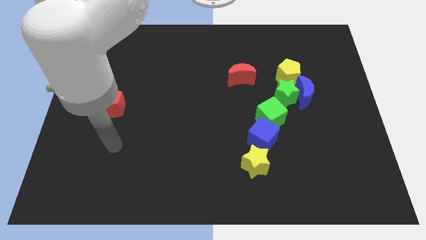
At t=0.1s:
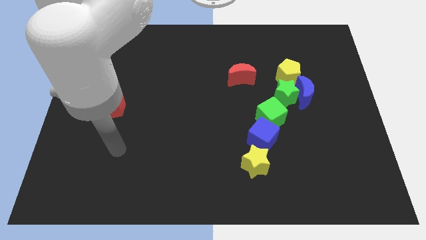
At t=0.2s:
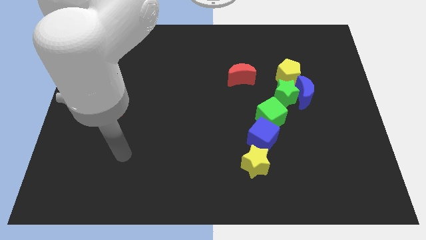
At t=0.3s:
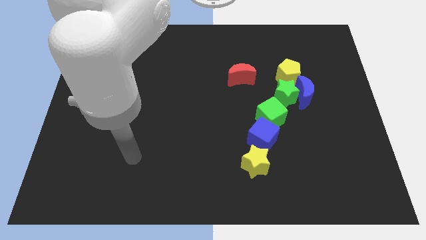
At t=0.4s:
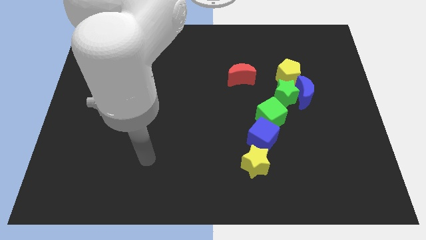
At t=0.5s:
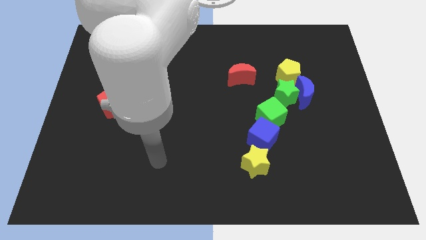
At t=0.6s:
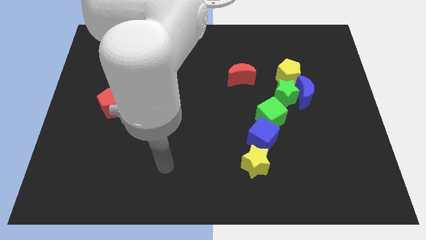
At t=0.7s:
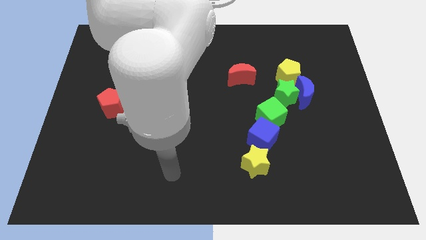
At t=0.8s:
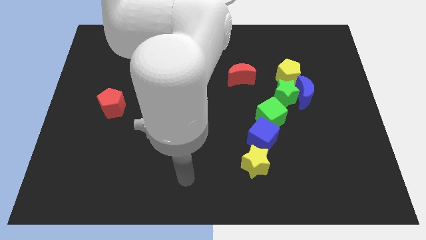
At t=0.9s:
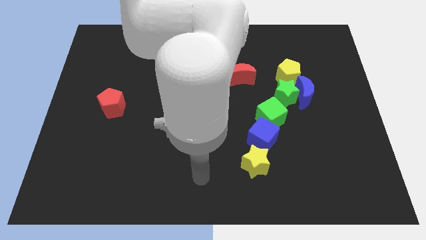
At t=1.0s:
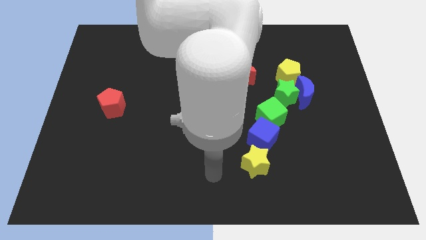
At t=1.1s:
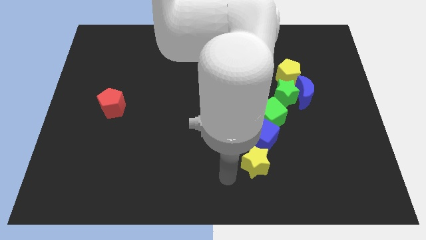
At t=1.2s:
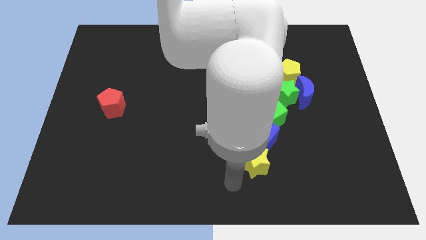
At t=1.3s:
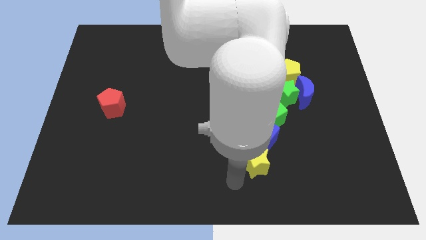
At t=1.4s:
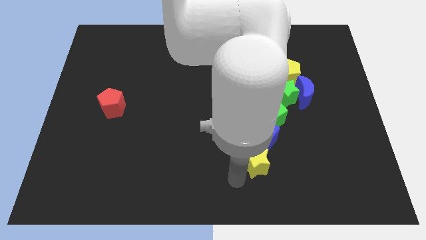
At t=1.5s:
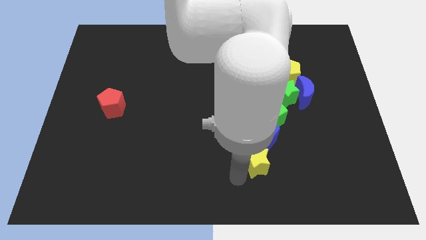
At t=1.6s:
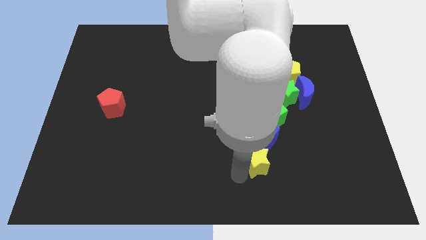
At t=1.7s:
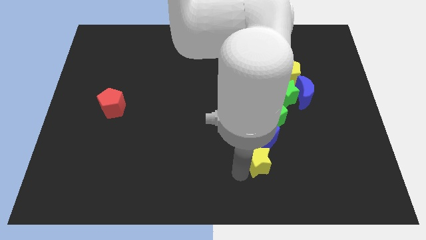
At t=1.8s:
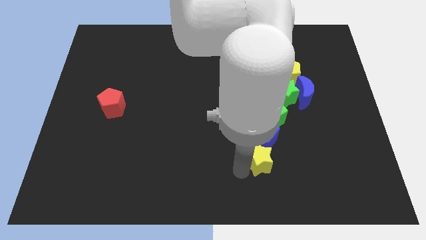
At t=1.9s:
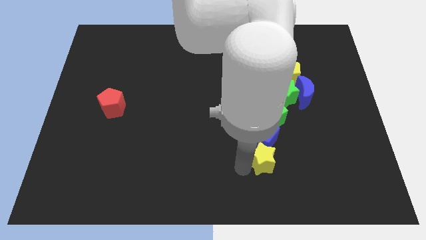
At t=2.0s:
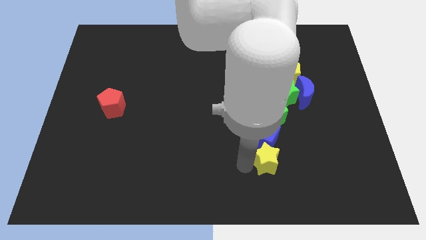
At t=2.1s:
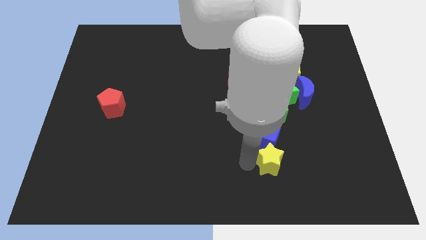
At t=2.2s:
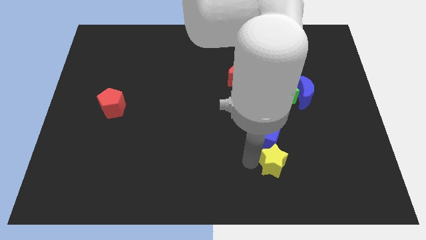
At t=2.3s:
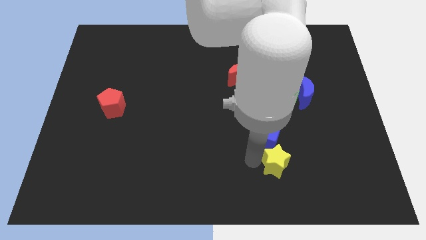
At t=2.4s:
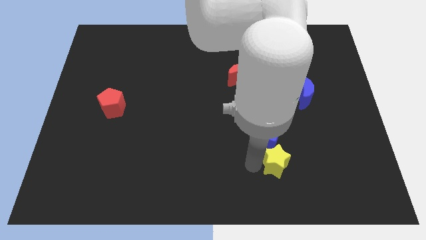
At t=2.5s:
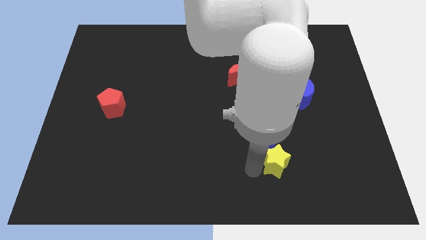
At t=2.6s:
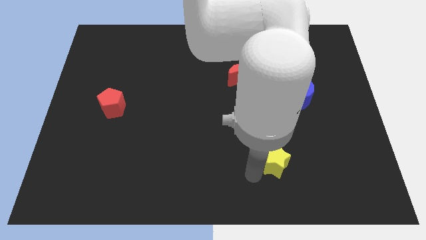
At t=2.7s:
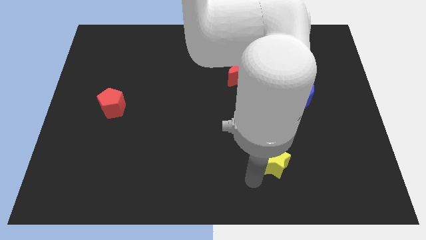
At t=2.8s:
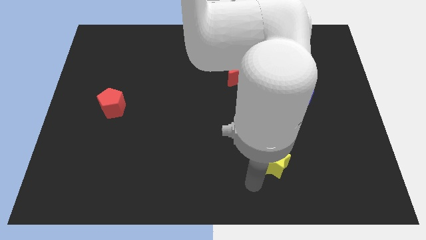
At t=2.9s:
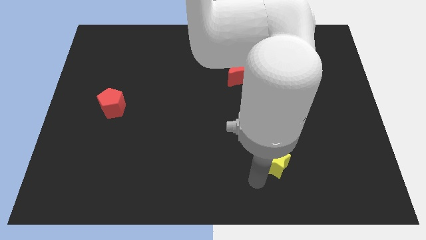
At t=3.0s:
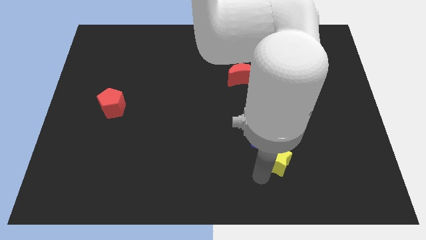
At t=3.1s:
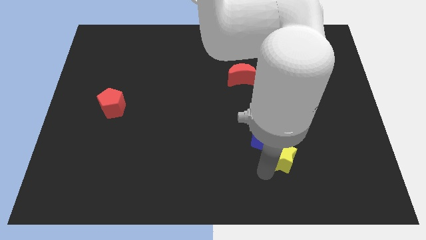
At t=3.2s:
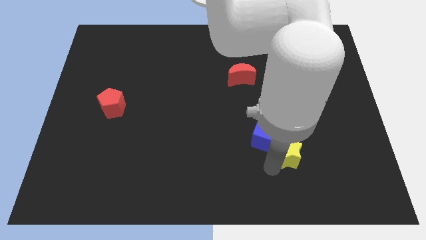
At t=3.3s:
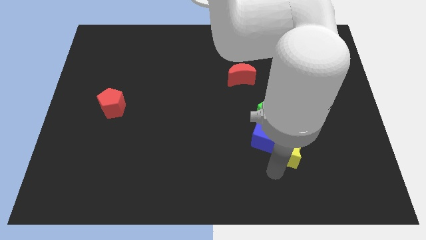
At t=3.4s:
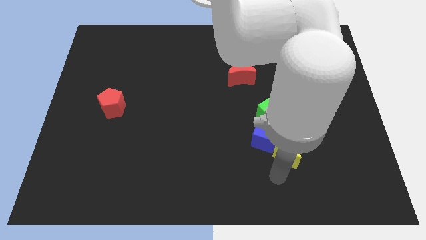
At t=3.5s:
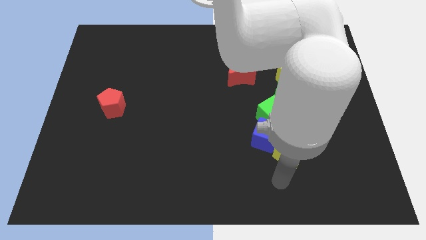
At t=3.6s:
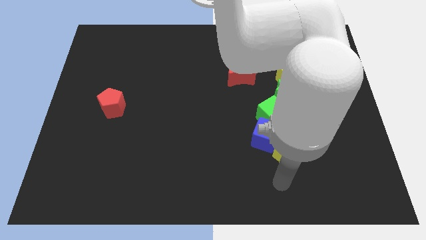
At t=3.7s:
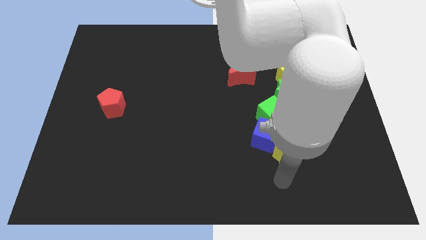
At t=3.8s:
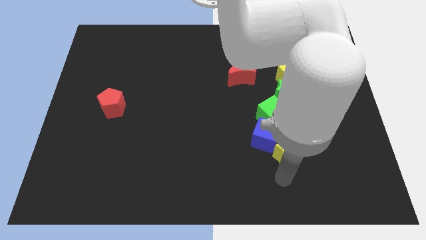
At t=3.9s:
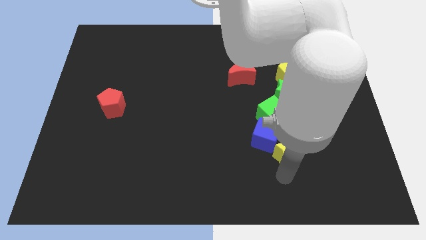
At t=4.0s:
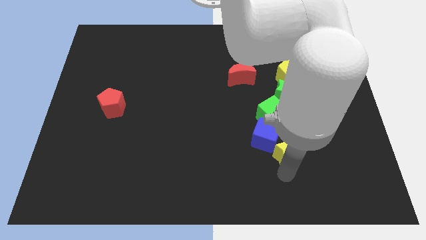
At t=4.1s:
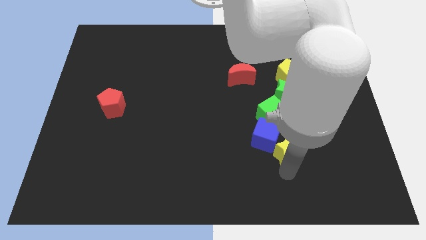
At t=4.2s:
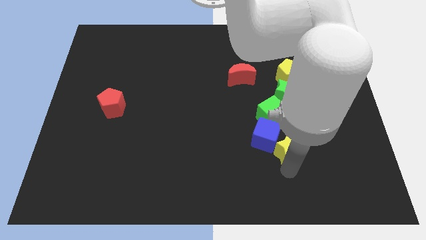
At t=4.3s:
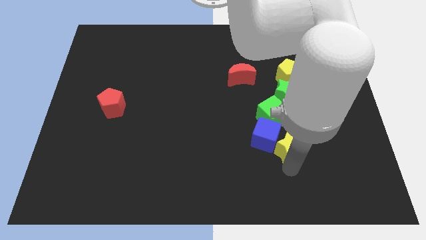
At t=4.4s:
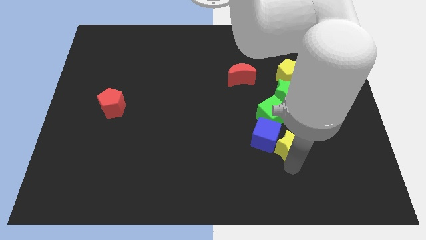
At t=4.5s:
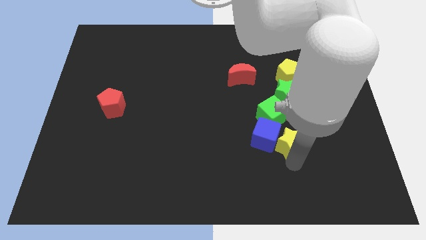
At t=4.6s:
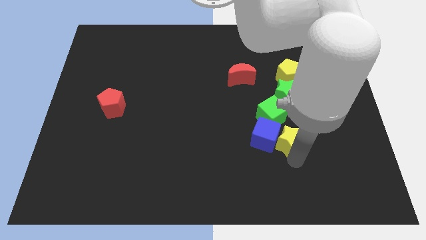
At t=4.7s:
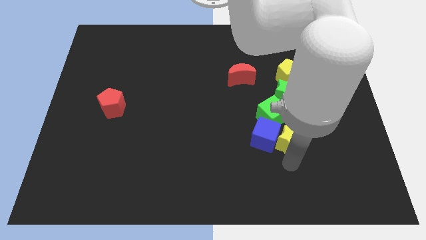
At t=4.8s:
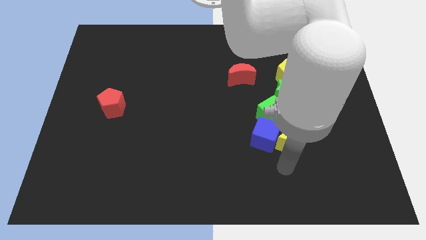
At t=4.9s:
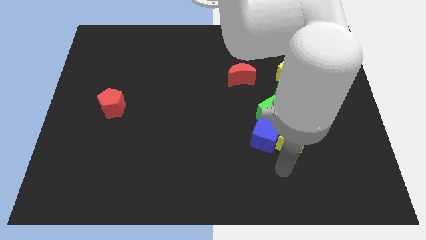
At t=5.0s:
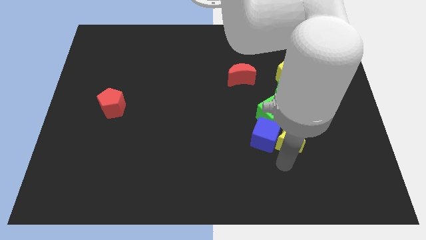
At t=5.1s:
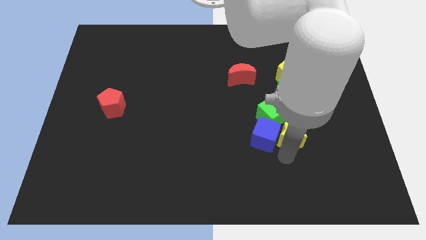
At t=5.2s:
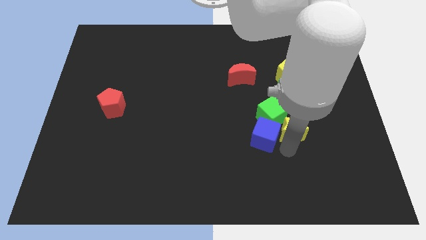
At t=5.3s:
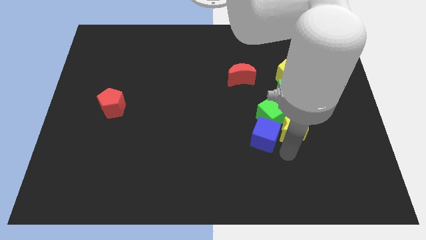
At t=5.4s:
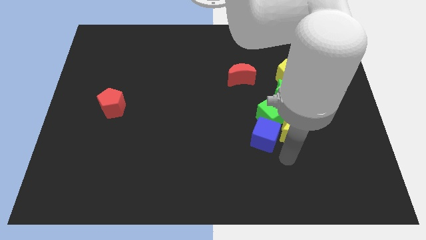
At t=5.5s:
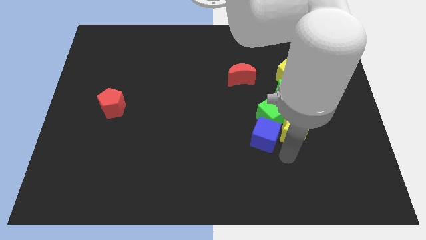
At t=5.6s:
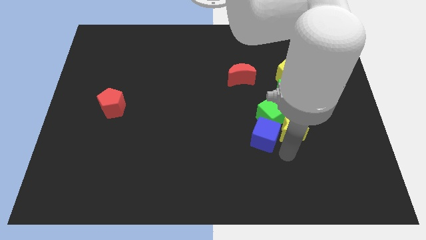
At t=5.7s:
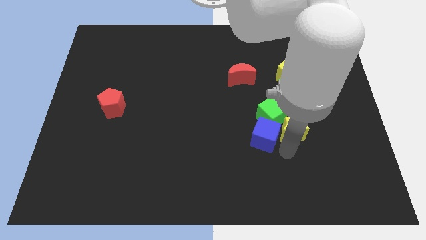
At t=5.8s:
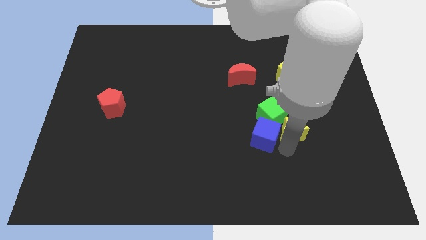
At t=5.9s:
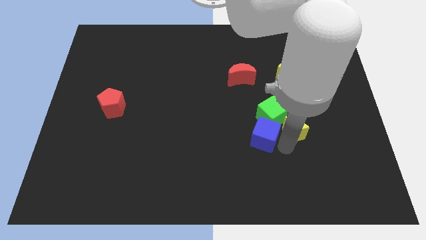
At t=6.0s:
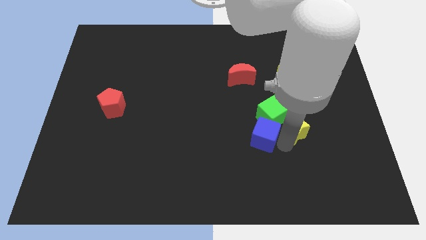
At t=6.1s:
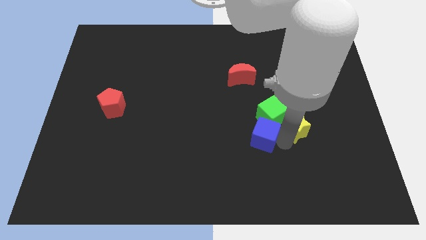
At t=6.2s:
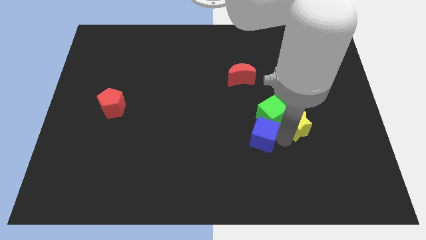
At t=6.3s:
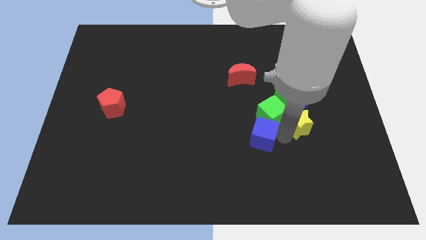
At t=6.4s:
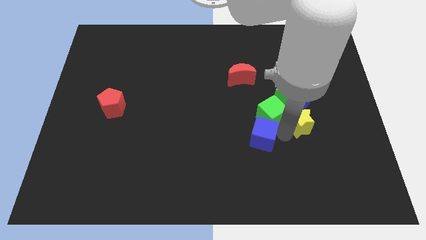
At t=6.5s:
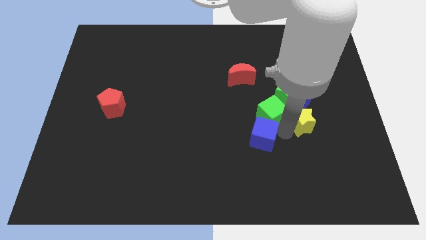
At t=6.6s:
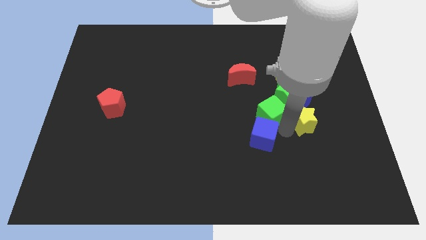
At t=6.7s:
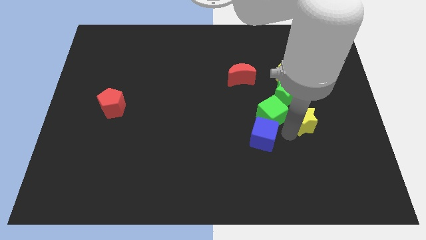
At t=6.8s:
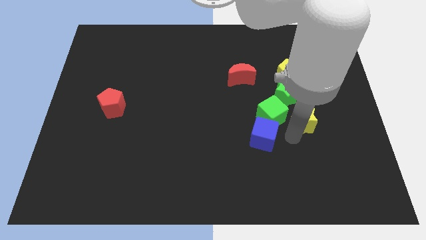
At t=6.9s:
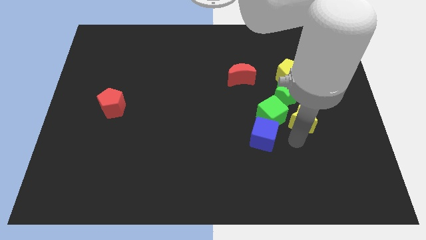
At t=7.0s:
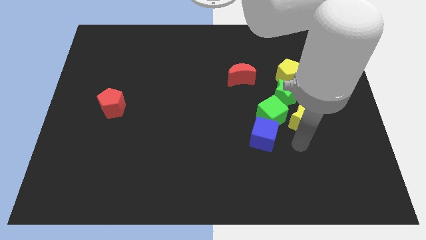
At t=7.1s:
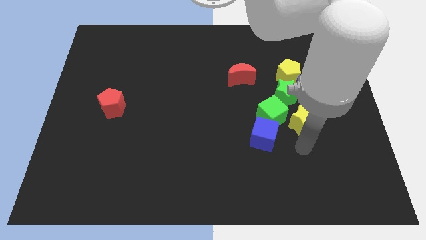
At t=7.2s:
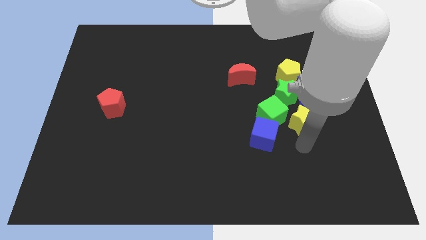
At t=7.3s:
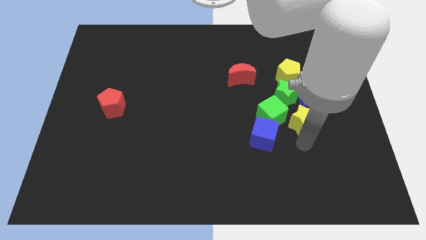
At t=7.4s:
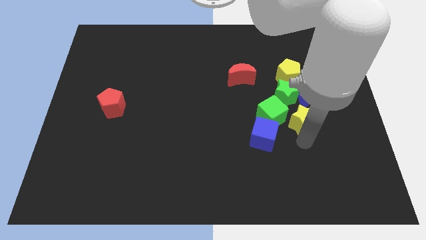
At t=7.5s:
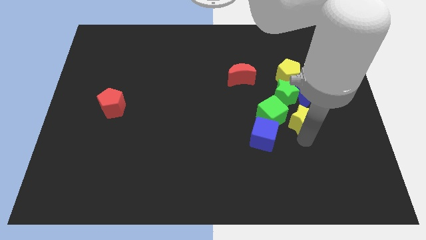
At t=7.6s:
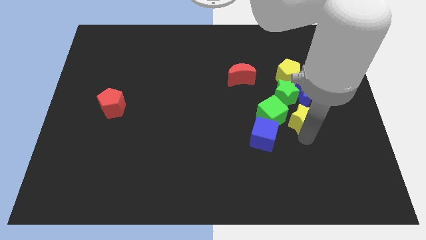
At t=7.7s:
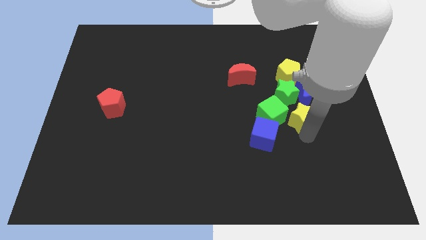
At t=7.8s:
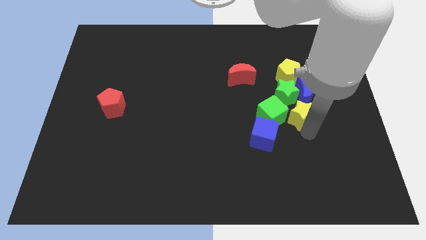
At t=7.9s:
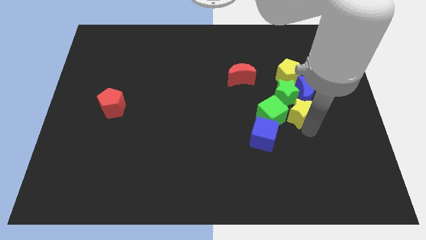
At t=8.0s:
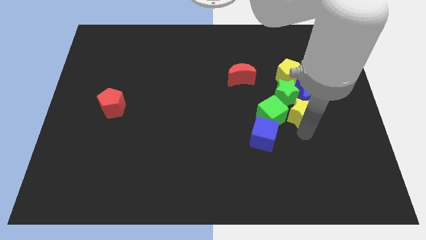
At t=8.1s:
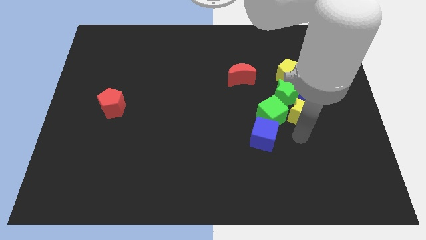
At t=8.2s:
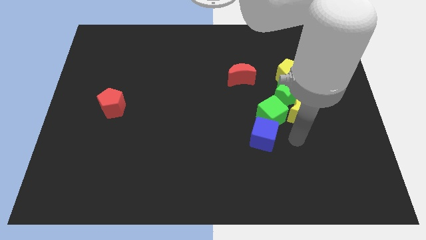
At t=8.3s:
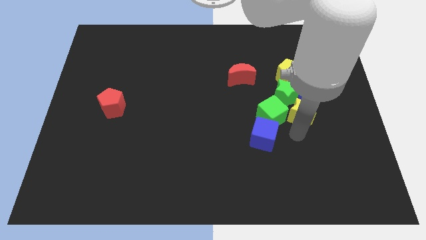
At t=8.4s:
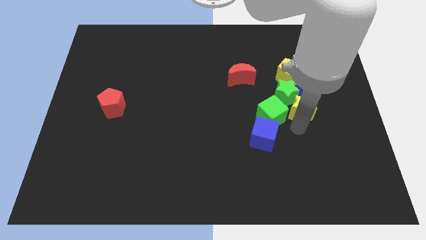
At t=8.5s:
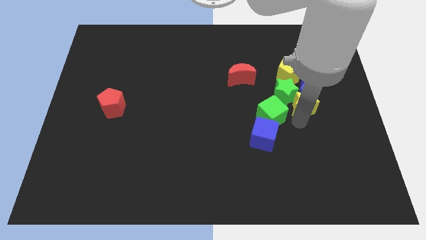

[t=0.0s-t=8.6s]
push the yellow star next to the blue moon
